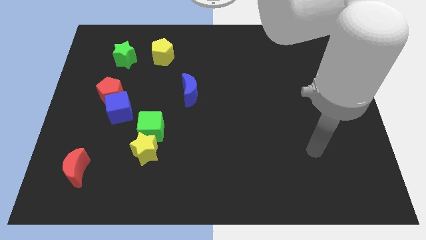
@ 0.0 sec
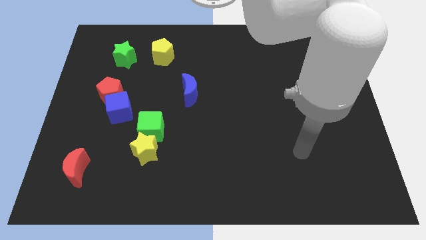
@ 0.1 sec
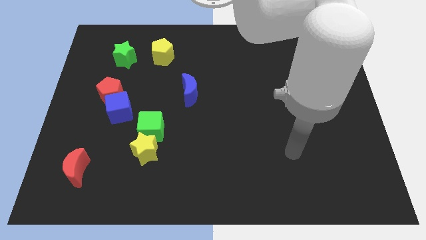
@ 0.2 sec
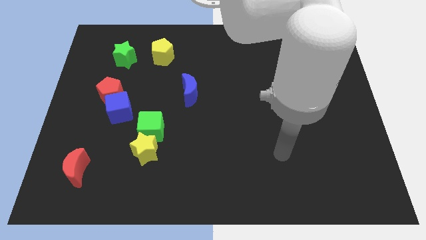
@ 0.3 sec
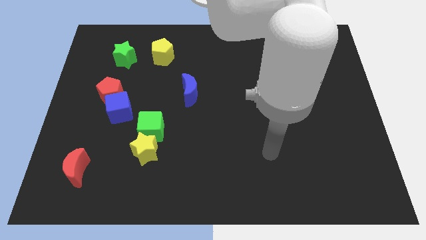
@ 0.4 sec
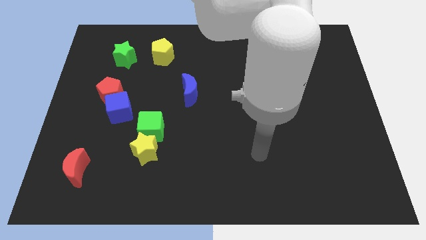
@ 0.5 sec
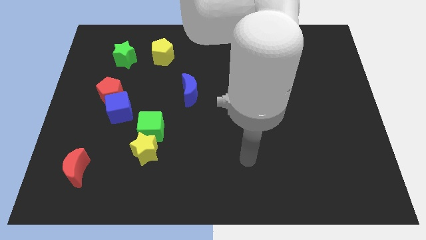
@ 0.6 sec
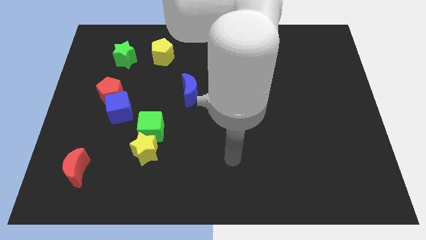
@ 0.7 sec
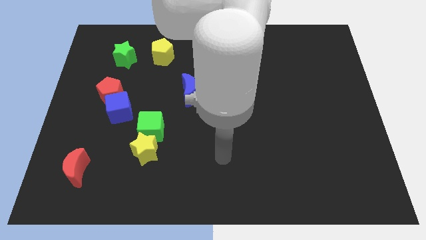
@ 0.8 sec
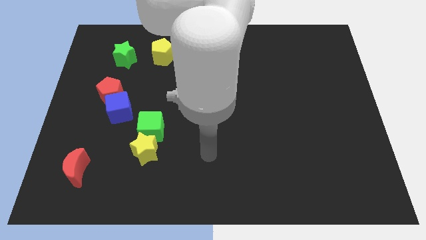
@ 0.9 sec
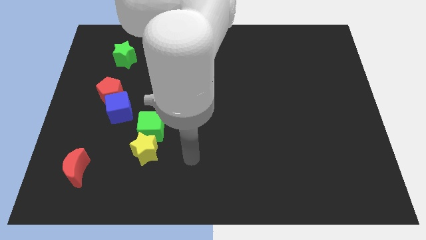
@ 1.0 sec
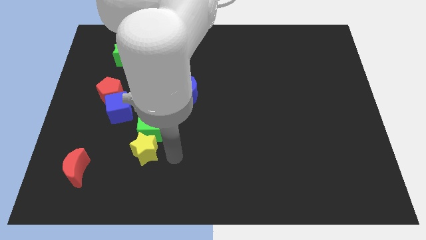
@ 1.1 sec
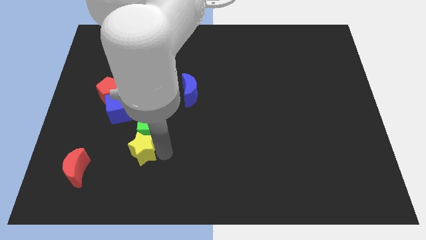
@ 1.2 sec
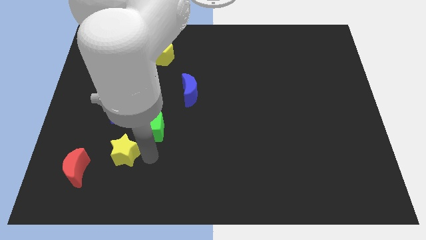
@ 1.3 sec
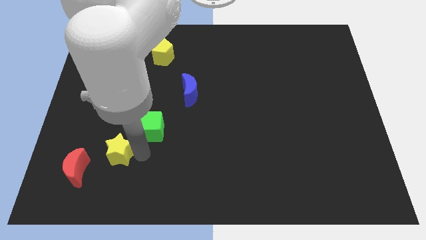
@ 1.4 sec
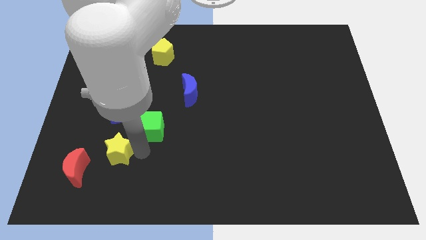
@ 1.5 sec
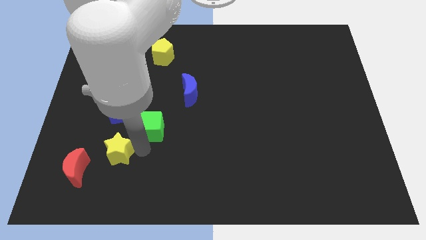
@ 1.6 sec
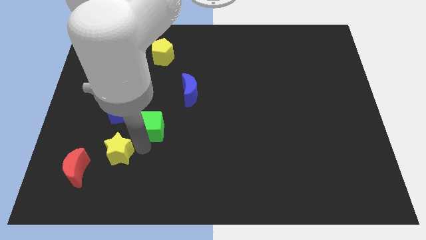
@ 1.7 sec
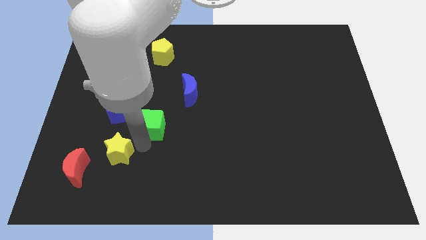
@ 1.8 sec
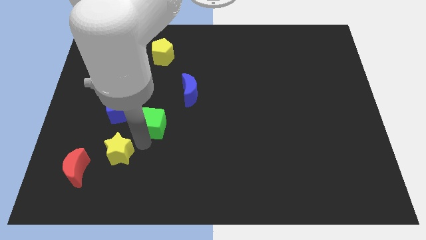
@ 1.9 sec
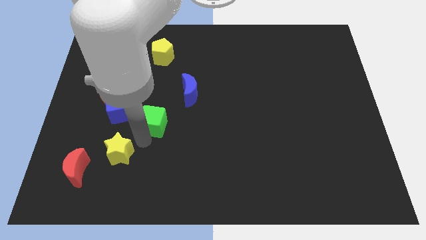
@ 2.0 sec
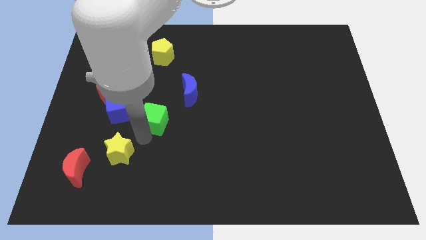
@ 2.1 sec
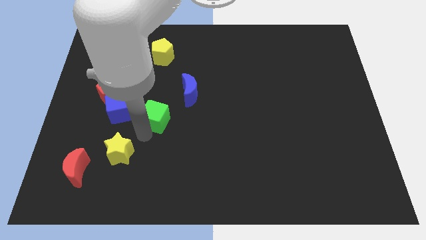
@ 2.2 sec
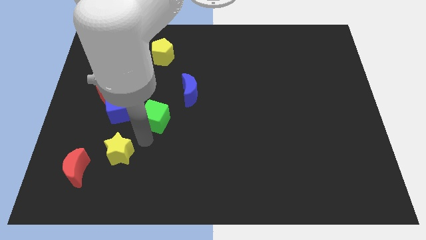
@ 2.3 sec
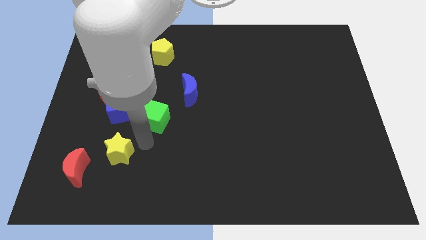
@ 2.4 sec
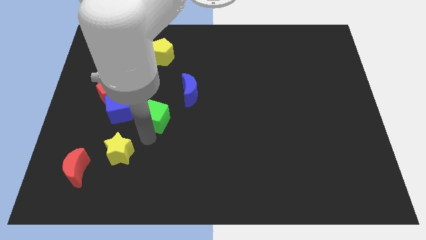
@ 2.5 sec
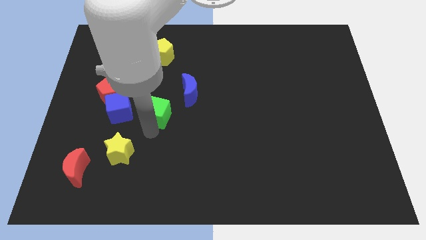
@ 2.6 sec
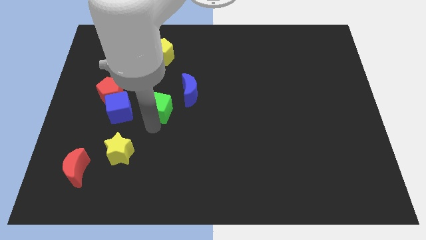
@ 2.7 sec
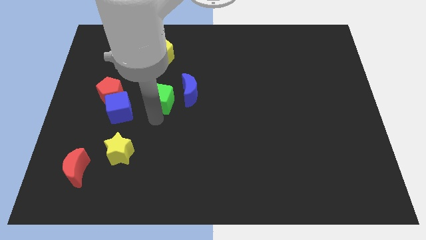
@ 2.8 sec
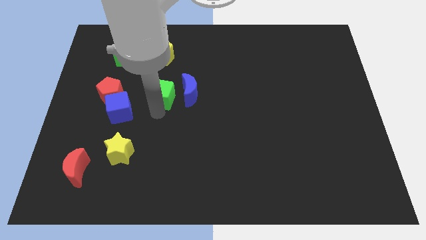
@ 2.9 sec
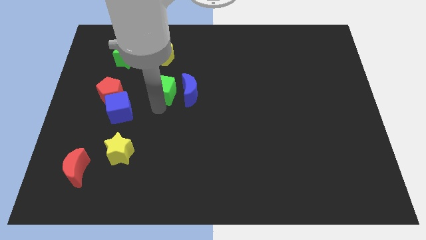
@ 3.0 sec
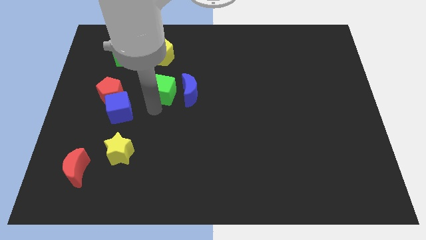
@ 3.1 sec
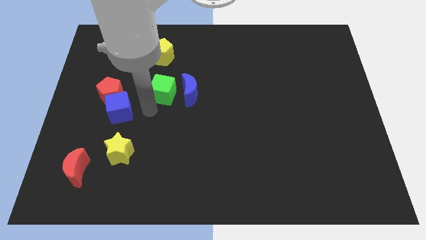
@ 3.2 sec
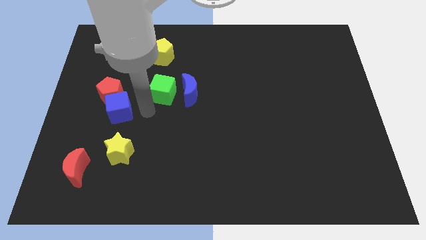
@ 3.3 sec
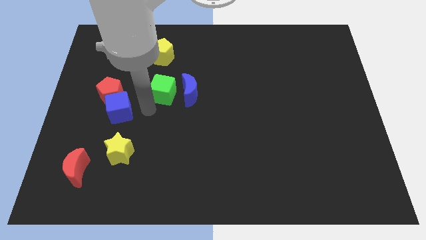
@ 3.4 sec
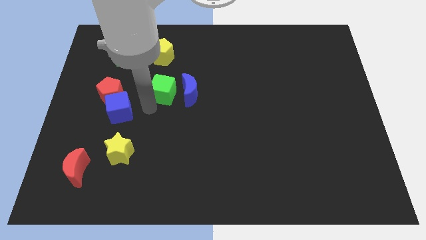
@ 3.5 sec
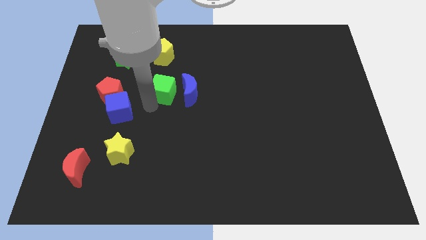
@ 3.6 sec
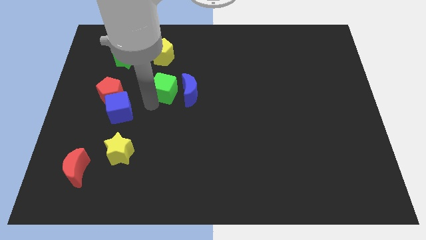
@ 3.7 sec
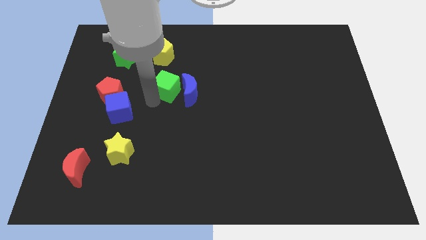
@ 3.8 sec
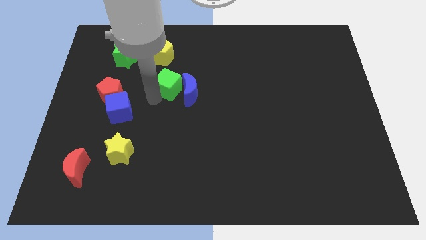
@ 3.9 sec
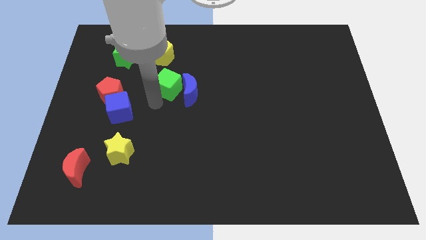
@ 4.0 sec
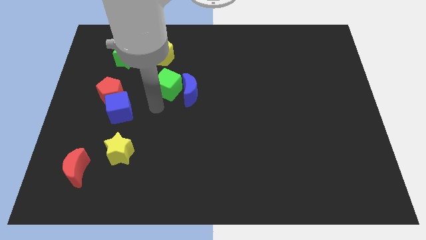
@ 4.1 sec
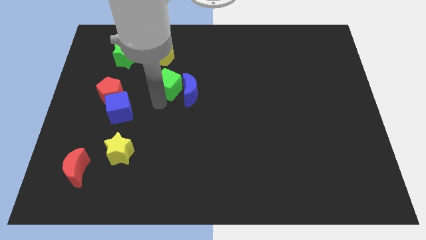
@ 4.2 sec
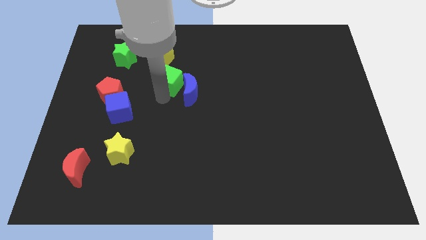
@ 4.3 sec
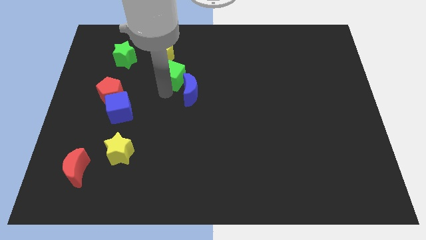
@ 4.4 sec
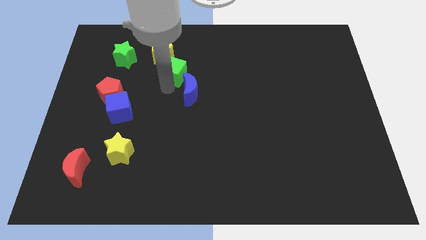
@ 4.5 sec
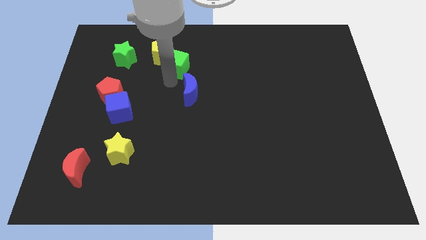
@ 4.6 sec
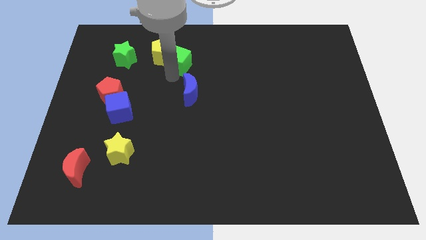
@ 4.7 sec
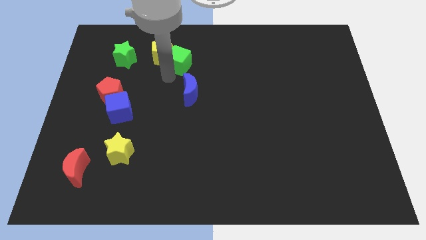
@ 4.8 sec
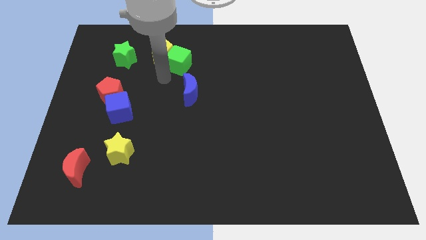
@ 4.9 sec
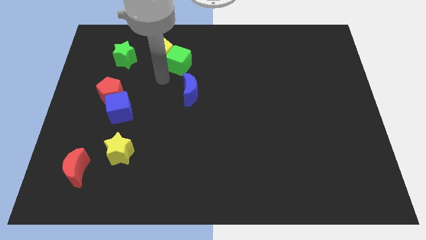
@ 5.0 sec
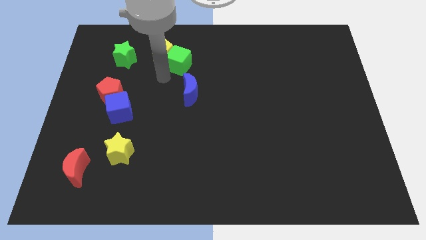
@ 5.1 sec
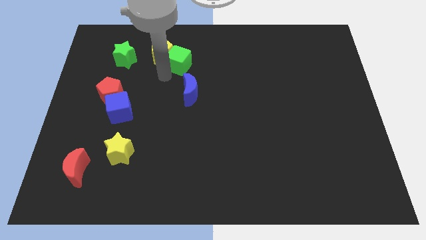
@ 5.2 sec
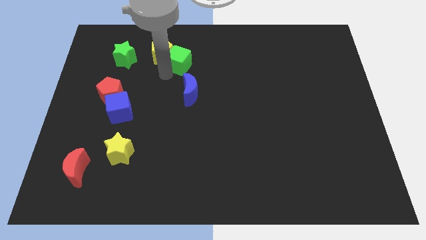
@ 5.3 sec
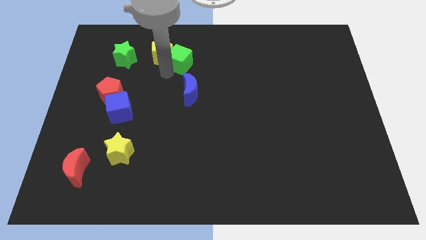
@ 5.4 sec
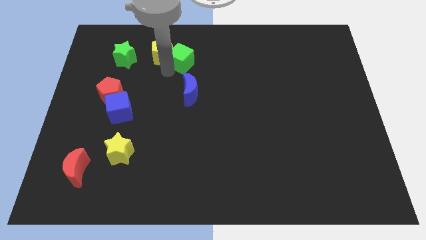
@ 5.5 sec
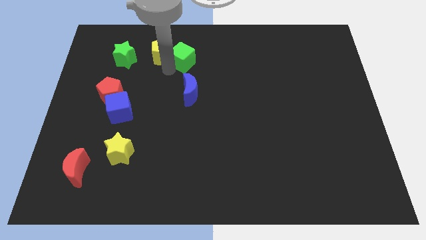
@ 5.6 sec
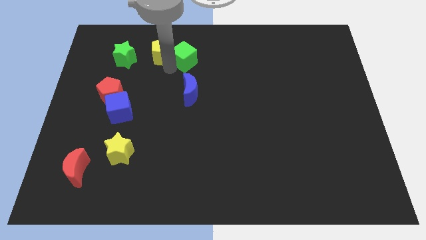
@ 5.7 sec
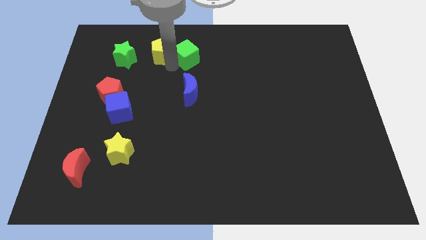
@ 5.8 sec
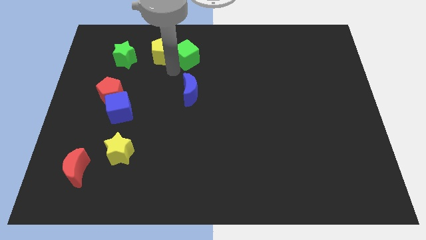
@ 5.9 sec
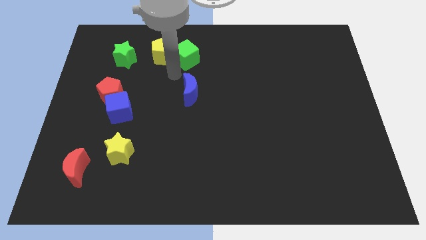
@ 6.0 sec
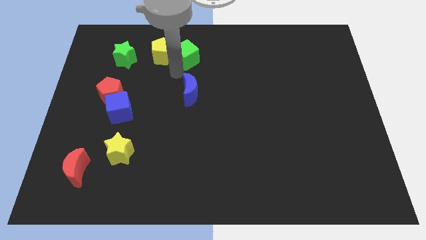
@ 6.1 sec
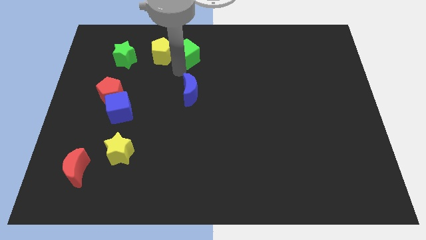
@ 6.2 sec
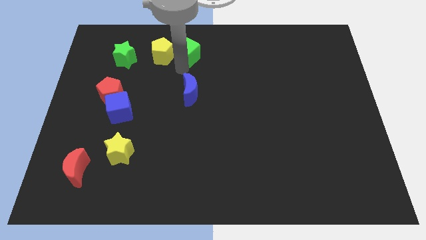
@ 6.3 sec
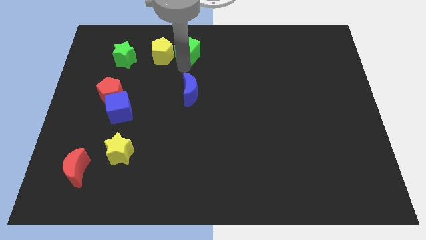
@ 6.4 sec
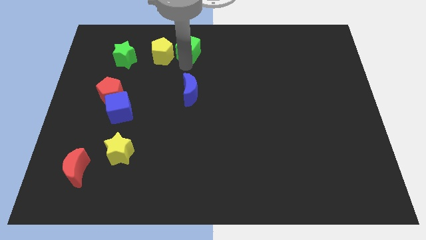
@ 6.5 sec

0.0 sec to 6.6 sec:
slide the green cube to the top
